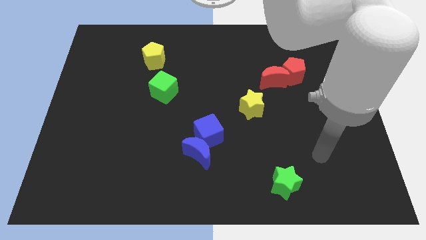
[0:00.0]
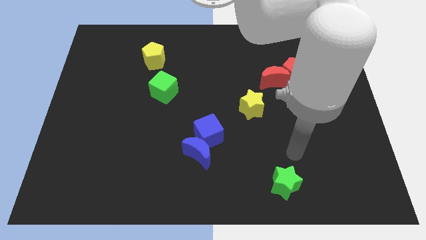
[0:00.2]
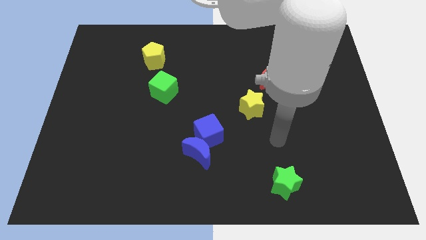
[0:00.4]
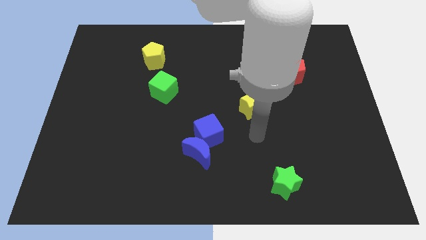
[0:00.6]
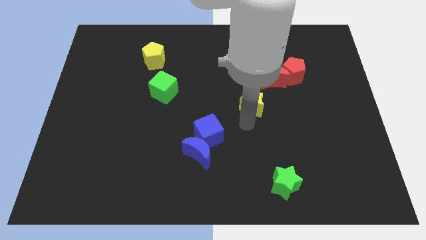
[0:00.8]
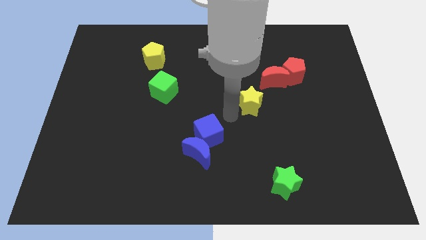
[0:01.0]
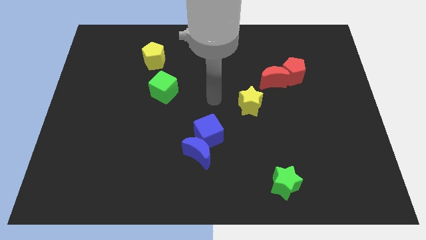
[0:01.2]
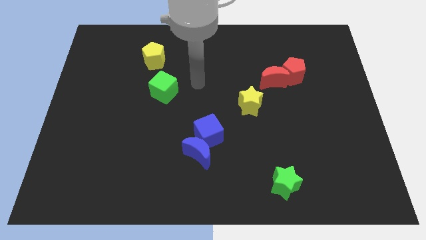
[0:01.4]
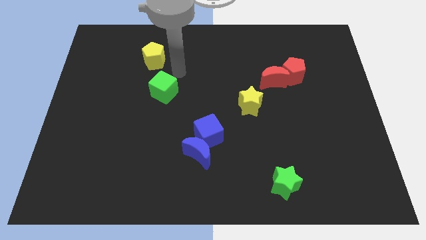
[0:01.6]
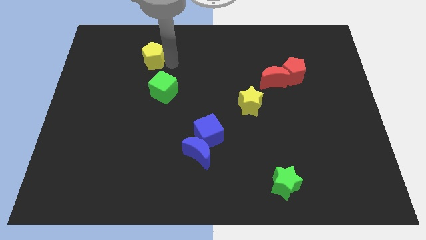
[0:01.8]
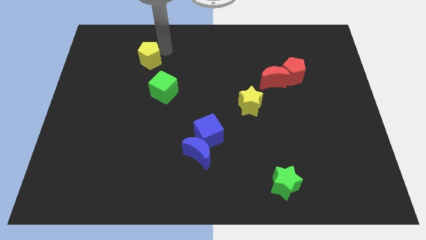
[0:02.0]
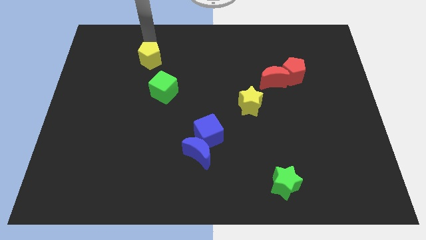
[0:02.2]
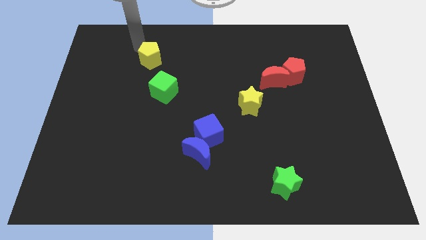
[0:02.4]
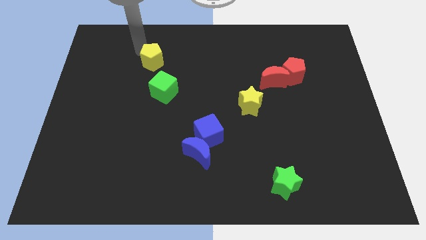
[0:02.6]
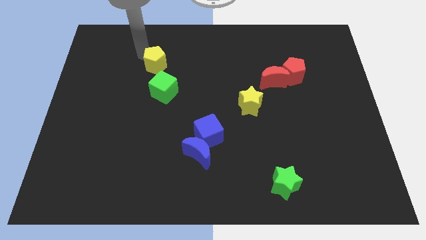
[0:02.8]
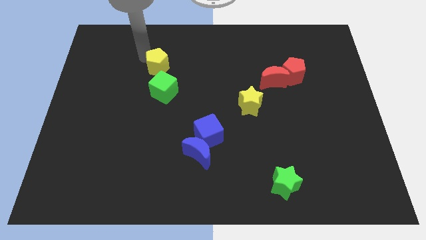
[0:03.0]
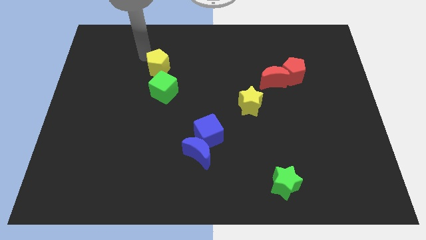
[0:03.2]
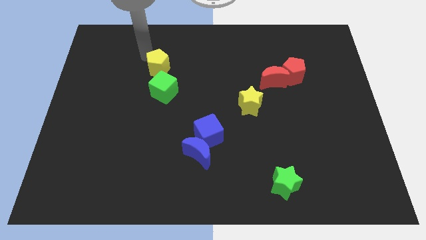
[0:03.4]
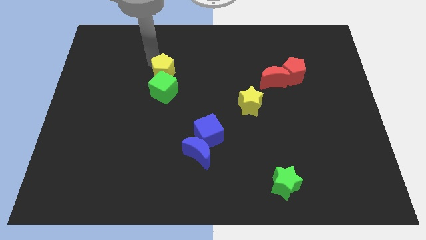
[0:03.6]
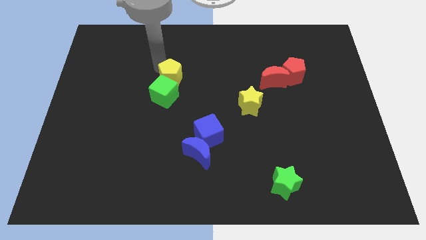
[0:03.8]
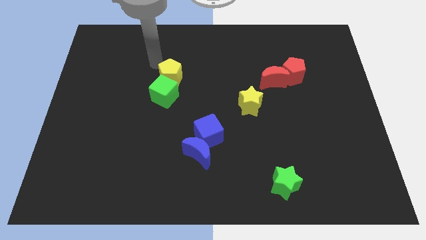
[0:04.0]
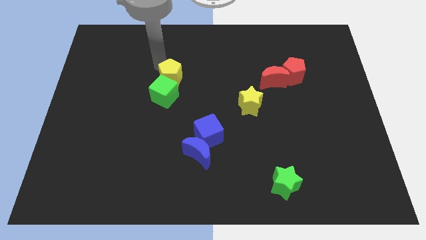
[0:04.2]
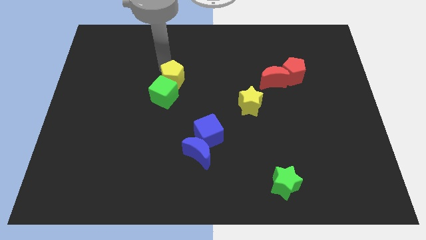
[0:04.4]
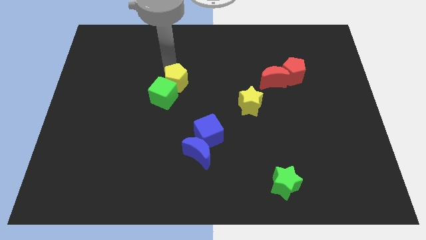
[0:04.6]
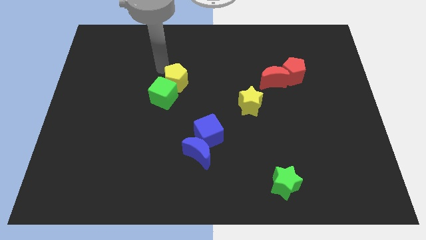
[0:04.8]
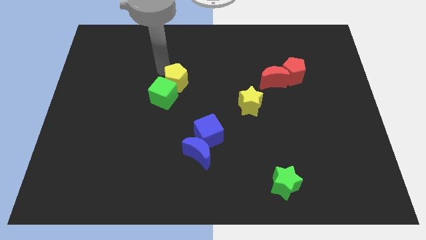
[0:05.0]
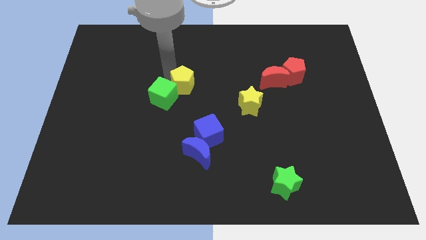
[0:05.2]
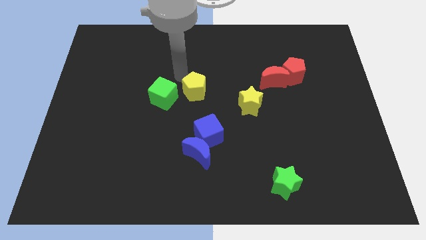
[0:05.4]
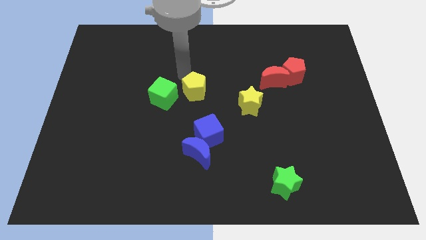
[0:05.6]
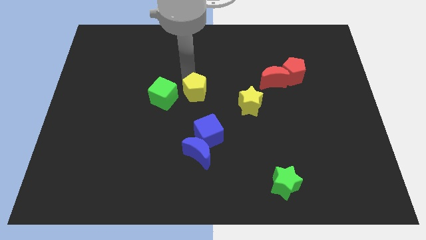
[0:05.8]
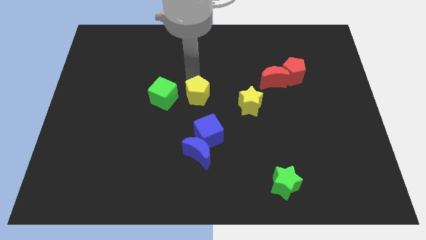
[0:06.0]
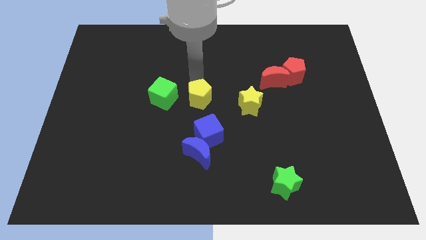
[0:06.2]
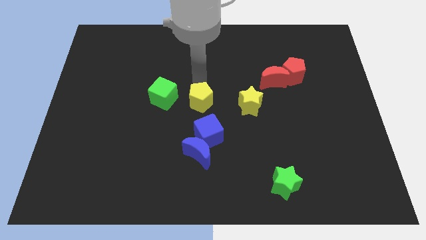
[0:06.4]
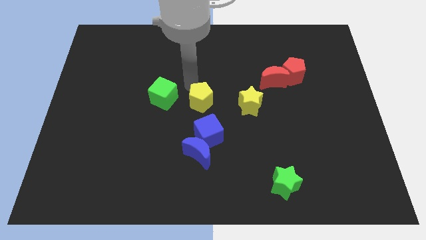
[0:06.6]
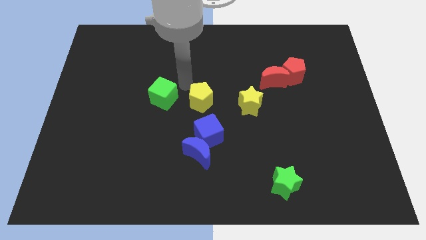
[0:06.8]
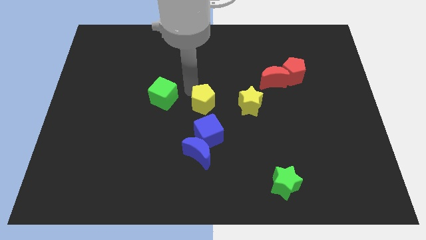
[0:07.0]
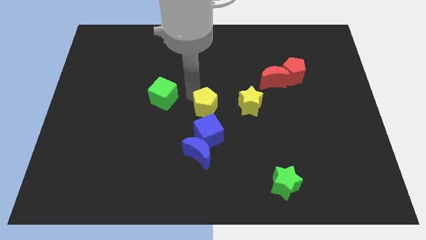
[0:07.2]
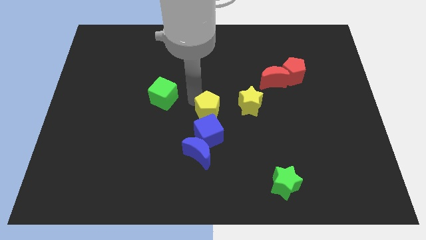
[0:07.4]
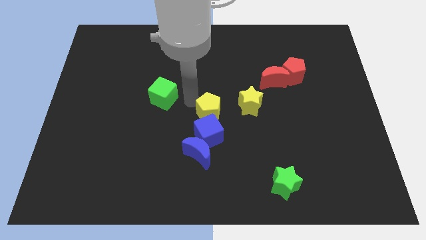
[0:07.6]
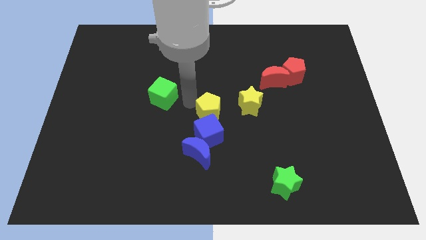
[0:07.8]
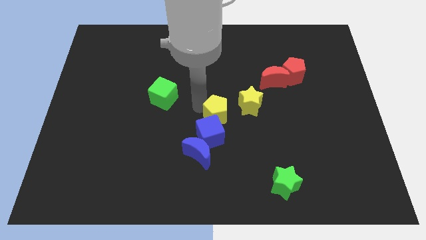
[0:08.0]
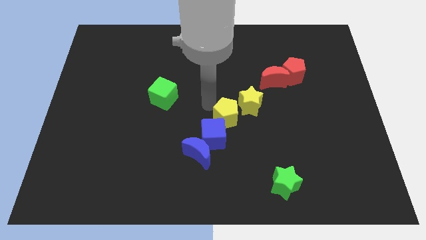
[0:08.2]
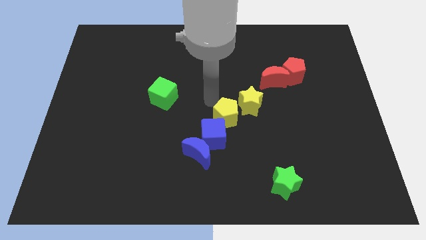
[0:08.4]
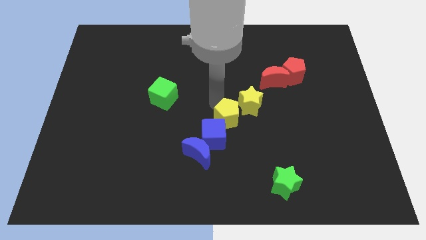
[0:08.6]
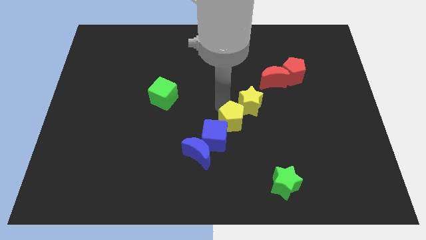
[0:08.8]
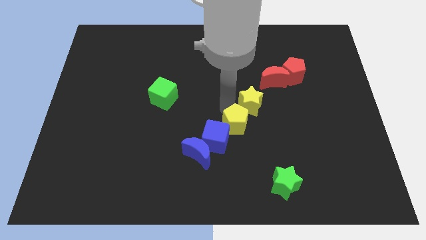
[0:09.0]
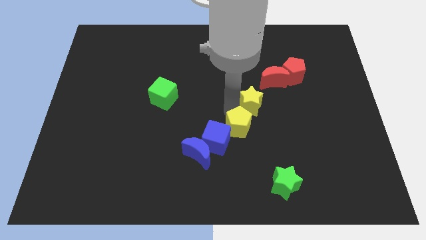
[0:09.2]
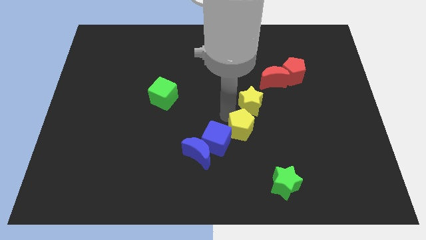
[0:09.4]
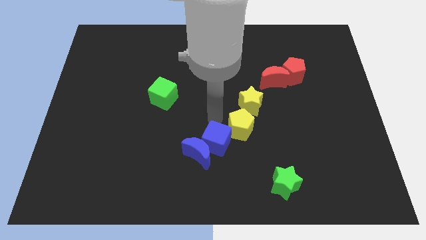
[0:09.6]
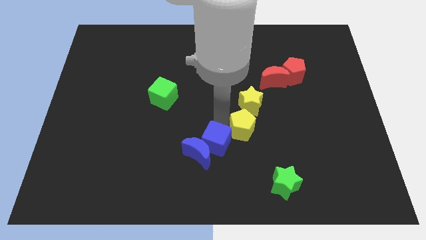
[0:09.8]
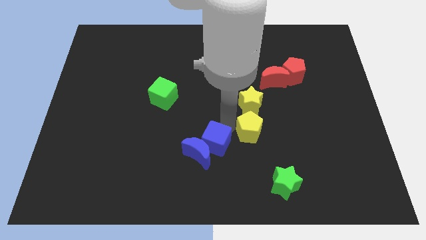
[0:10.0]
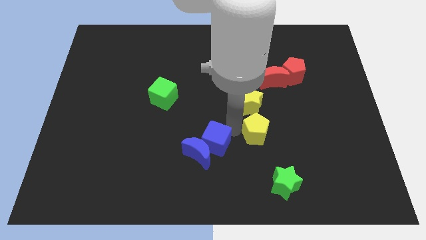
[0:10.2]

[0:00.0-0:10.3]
move the yellow pentagon to the top of the green star

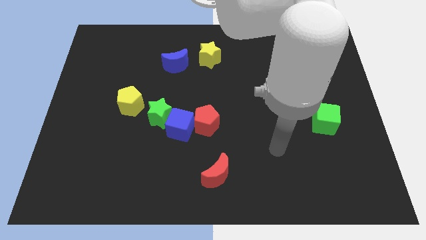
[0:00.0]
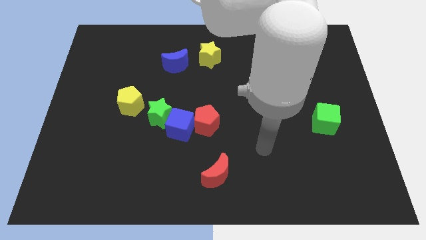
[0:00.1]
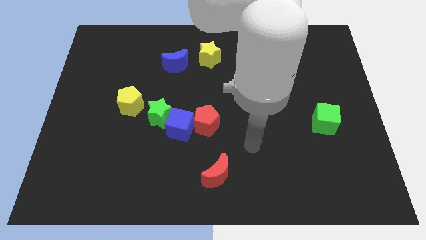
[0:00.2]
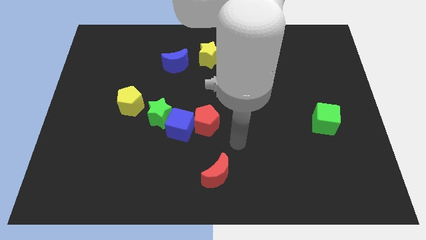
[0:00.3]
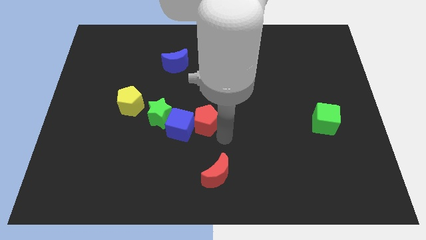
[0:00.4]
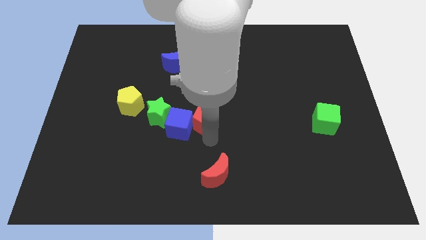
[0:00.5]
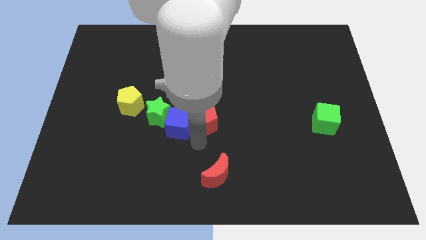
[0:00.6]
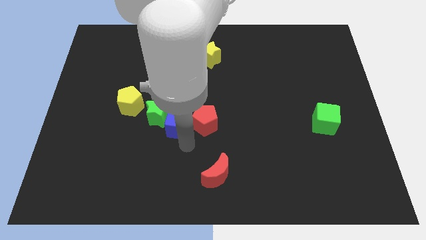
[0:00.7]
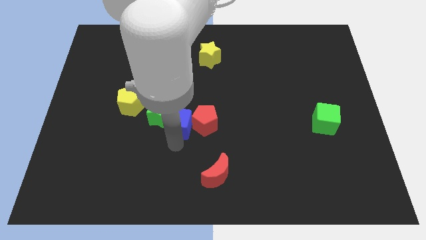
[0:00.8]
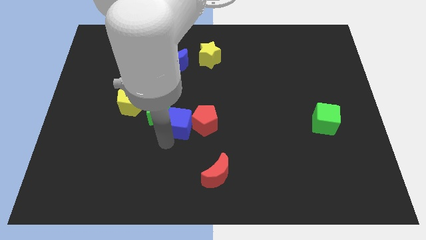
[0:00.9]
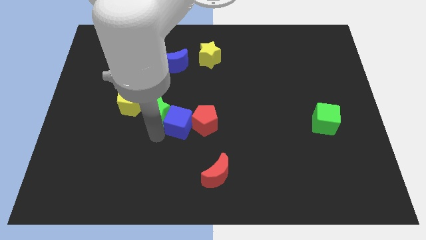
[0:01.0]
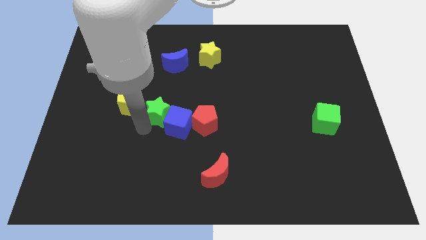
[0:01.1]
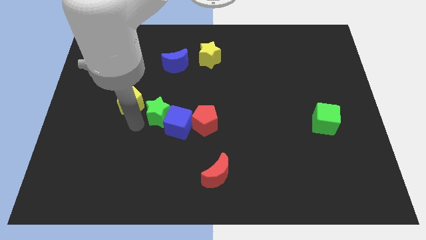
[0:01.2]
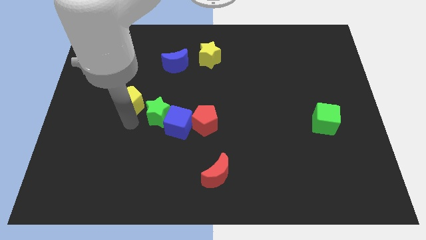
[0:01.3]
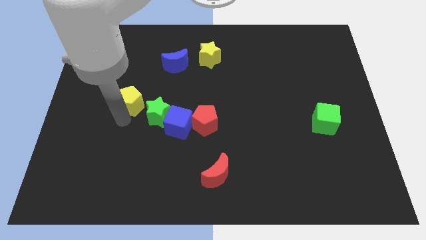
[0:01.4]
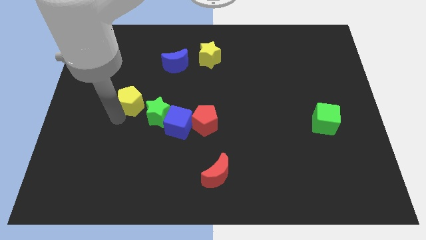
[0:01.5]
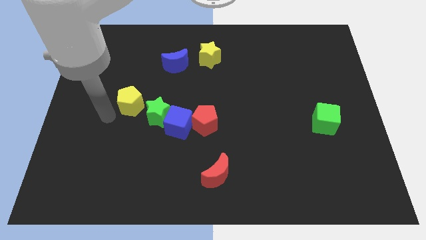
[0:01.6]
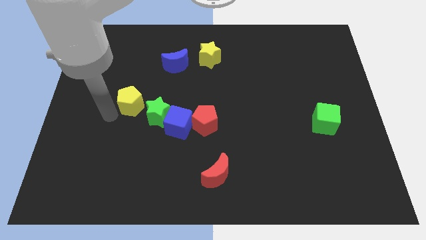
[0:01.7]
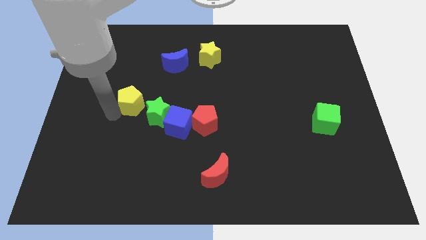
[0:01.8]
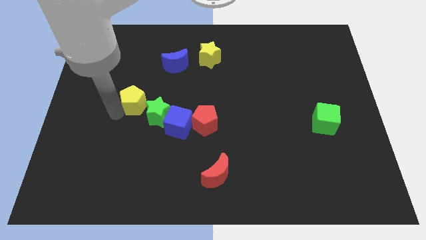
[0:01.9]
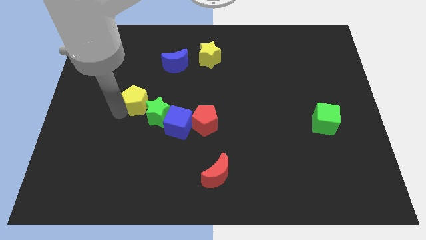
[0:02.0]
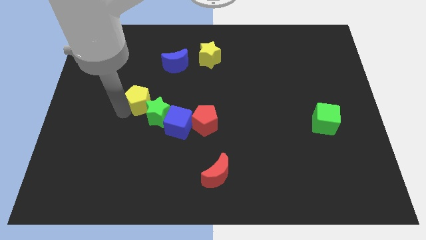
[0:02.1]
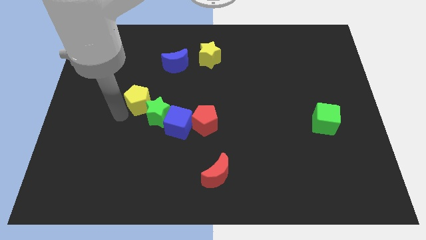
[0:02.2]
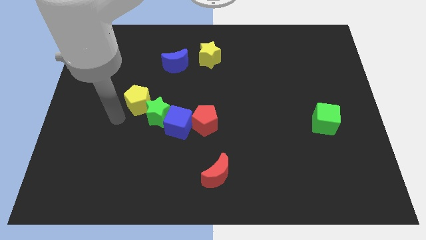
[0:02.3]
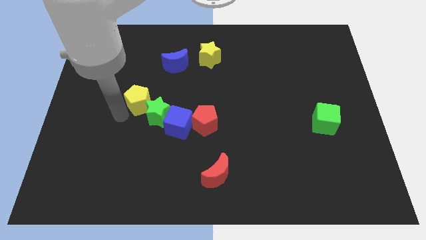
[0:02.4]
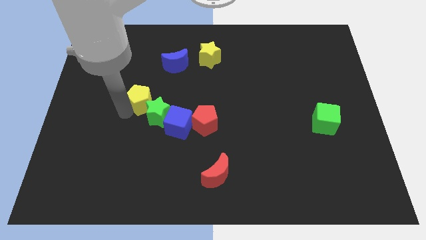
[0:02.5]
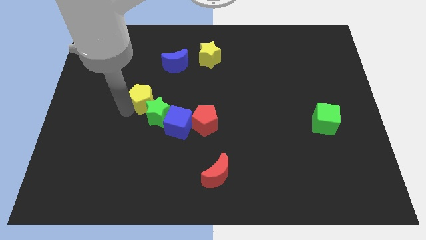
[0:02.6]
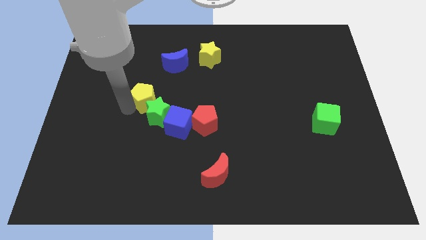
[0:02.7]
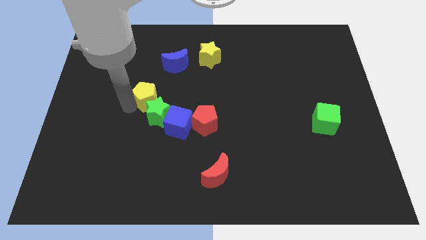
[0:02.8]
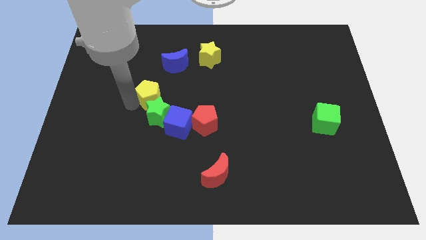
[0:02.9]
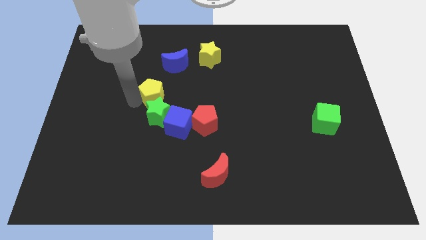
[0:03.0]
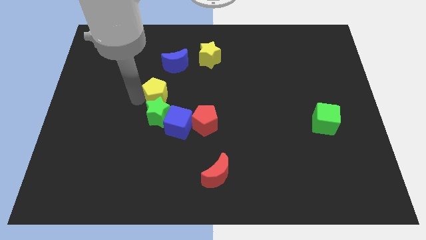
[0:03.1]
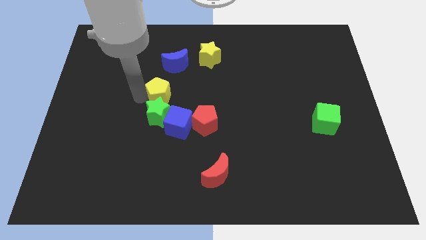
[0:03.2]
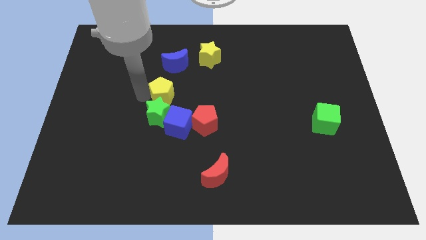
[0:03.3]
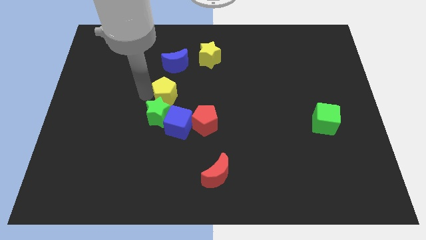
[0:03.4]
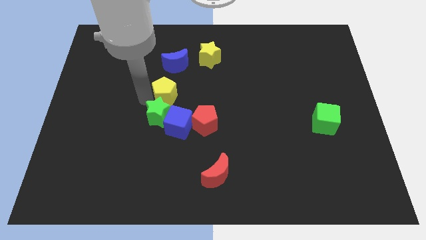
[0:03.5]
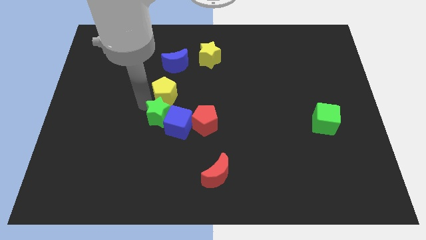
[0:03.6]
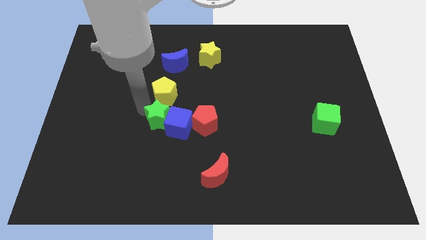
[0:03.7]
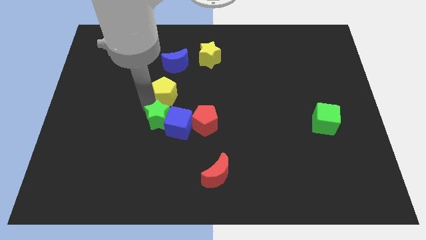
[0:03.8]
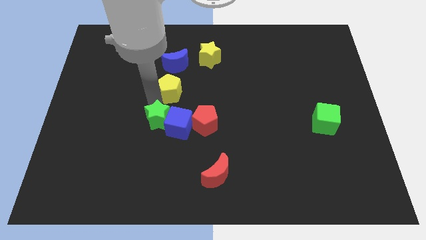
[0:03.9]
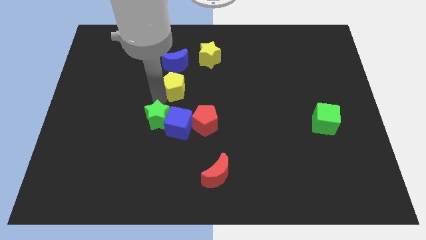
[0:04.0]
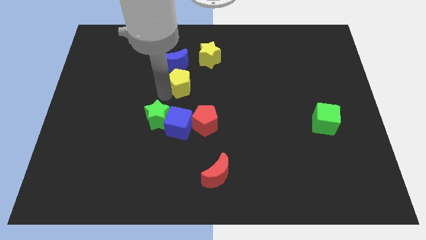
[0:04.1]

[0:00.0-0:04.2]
push the yellow pentagon to the bottom right of the blue moon
